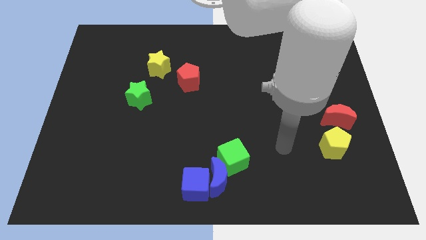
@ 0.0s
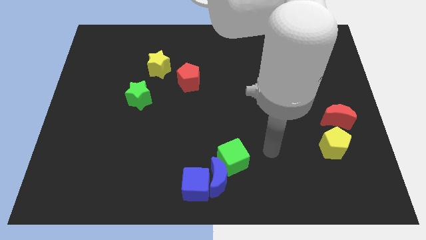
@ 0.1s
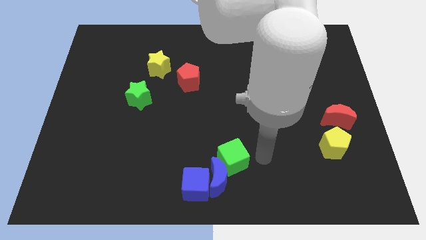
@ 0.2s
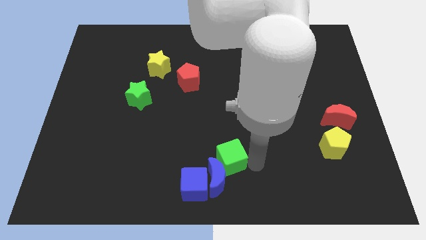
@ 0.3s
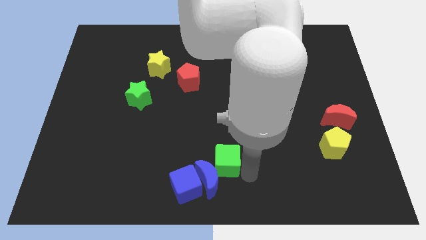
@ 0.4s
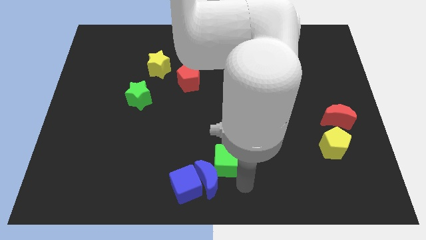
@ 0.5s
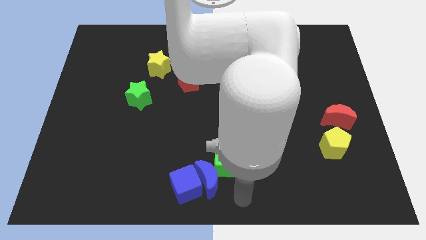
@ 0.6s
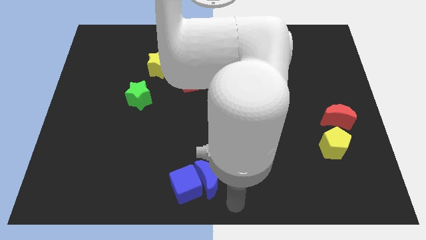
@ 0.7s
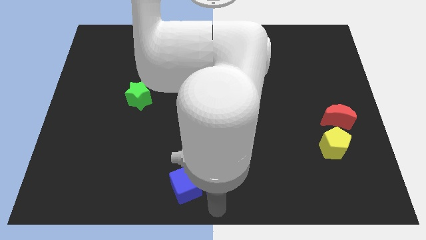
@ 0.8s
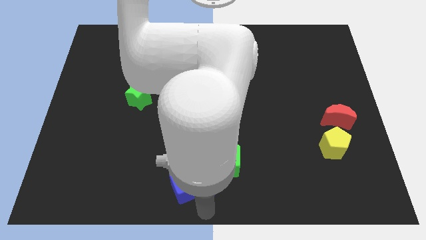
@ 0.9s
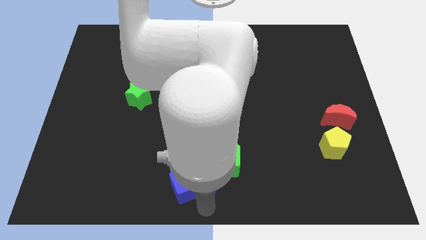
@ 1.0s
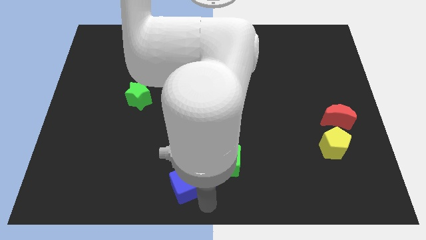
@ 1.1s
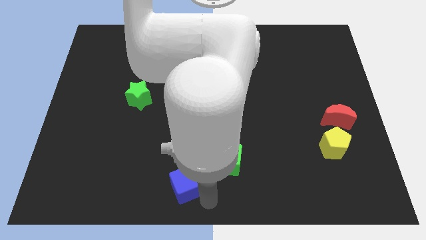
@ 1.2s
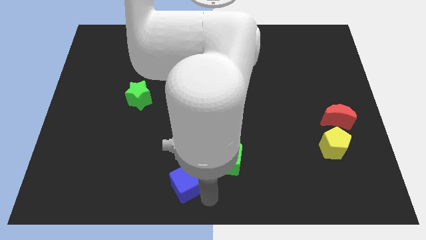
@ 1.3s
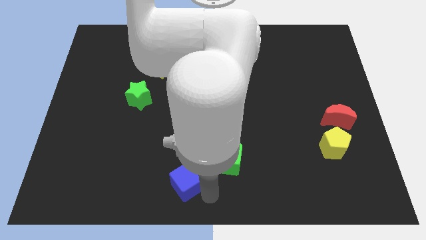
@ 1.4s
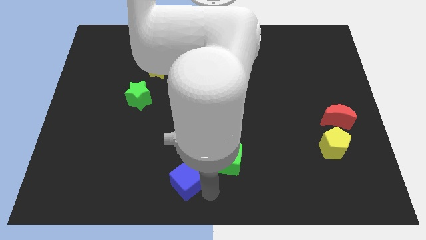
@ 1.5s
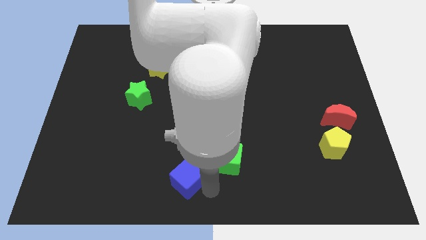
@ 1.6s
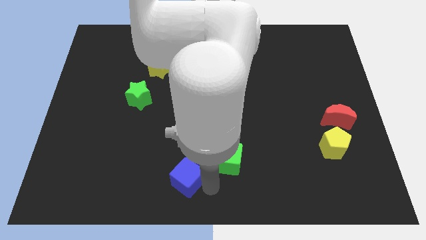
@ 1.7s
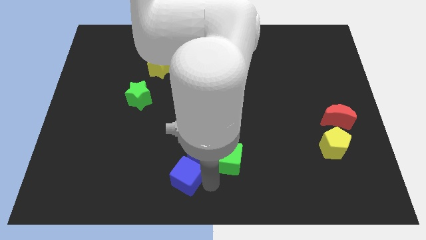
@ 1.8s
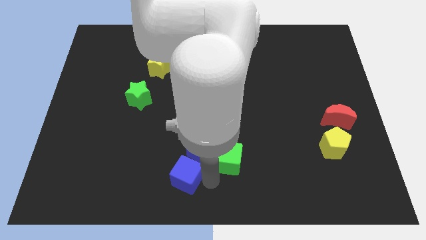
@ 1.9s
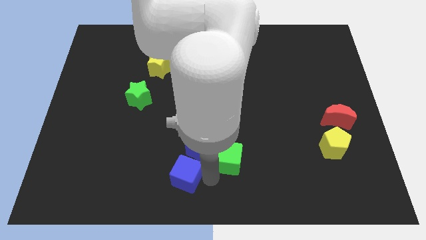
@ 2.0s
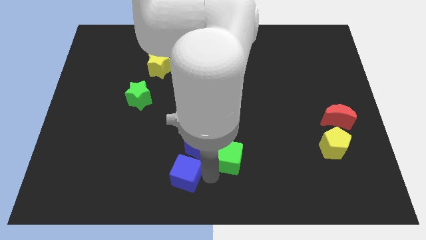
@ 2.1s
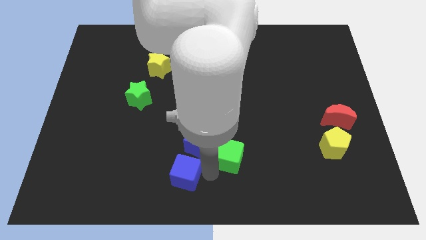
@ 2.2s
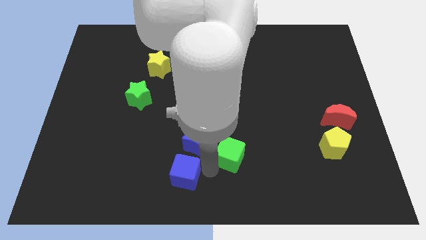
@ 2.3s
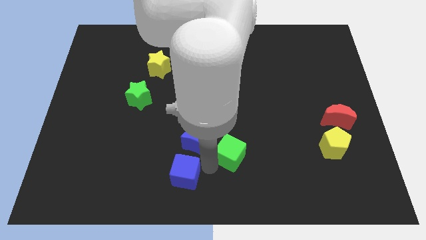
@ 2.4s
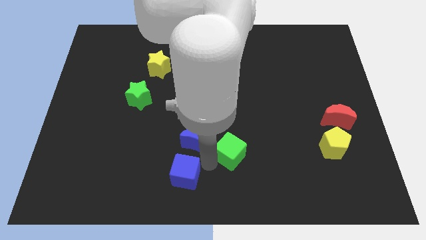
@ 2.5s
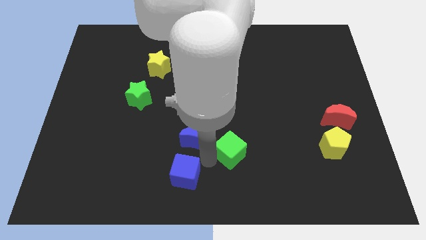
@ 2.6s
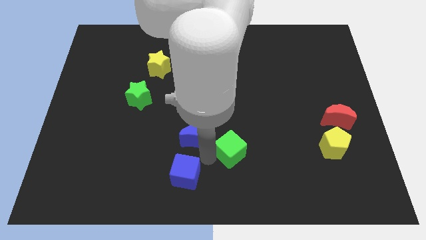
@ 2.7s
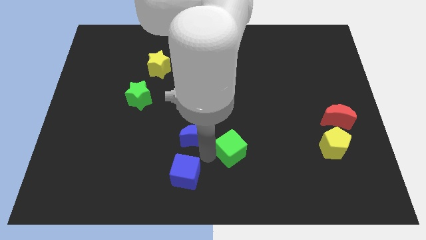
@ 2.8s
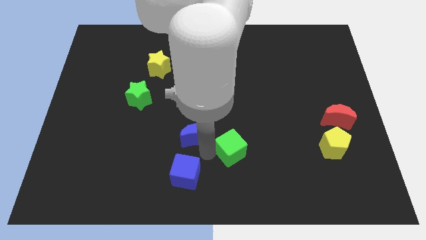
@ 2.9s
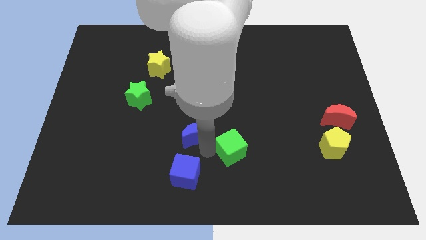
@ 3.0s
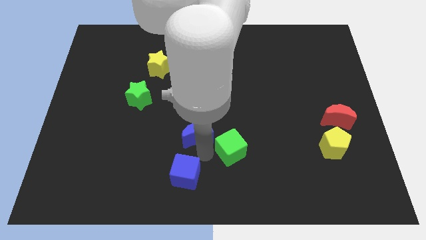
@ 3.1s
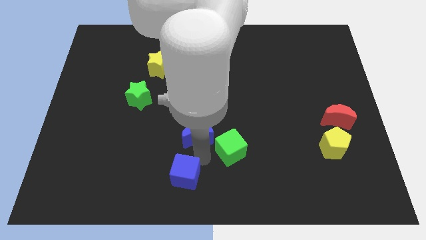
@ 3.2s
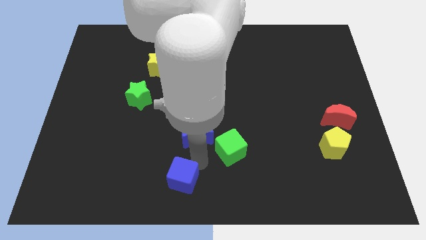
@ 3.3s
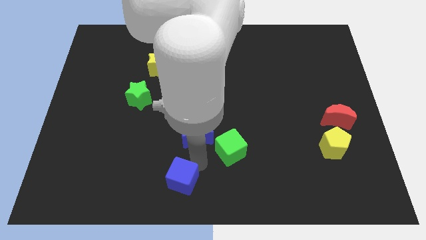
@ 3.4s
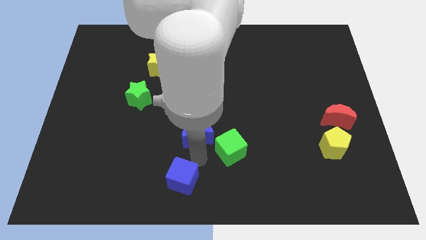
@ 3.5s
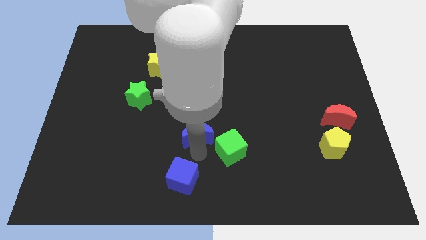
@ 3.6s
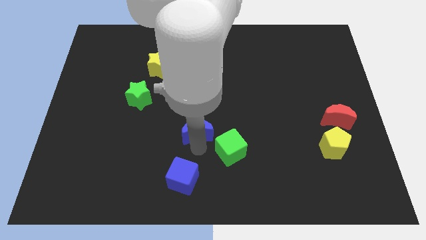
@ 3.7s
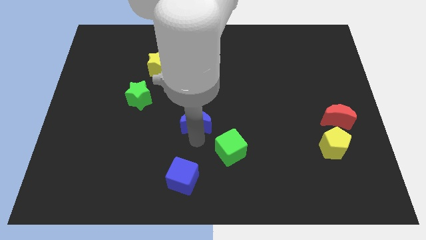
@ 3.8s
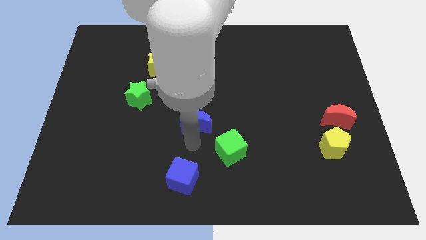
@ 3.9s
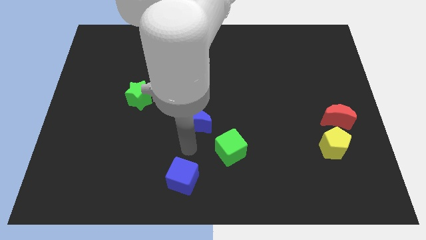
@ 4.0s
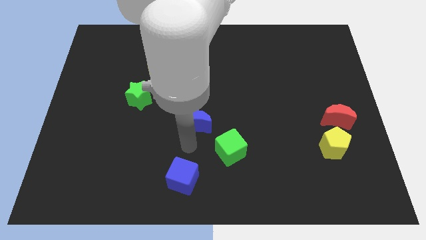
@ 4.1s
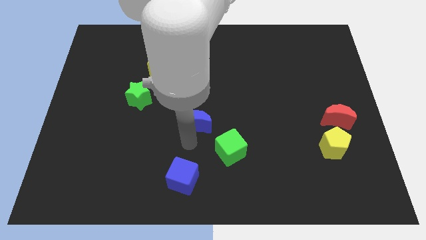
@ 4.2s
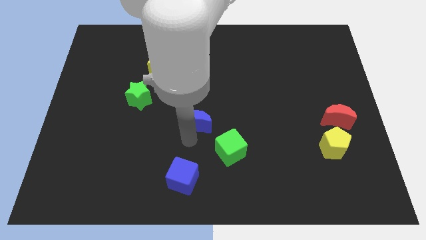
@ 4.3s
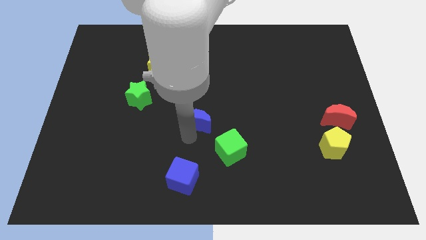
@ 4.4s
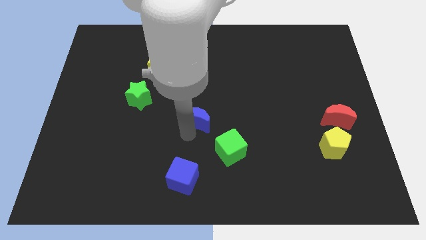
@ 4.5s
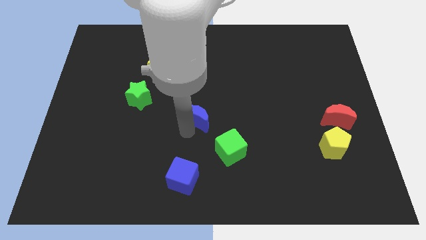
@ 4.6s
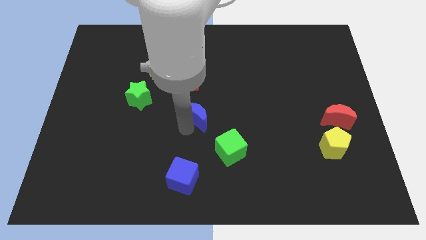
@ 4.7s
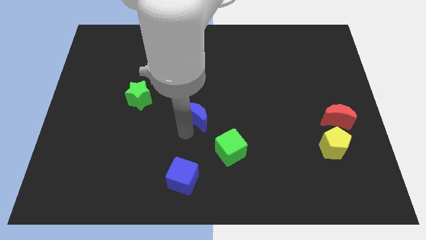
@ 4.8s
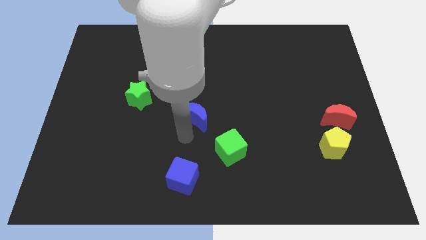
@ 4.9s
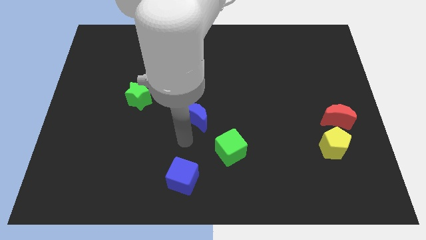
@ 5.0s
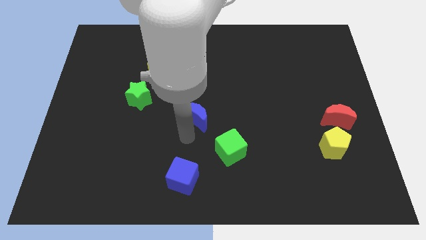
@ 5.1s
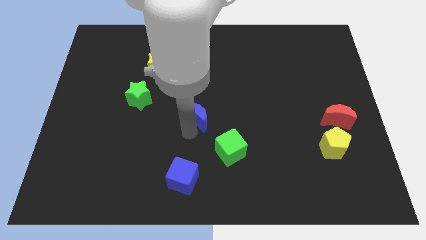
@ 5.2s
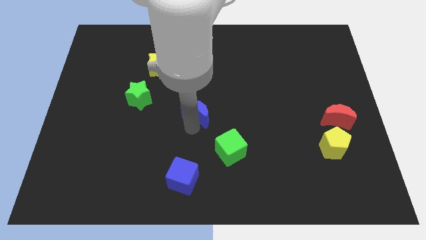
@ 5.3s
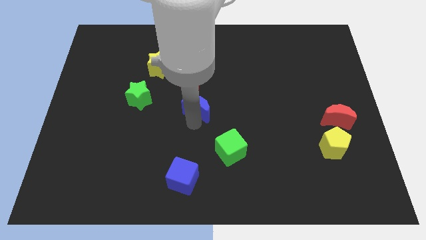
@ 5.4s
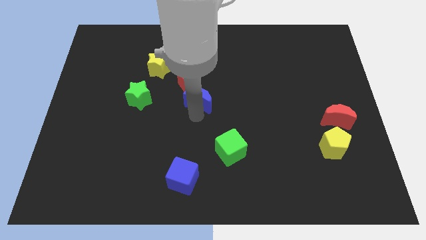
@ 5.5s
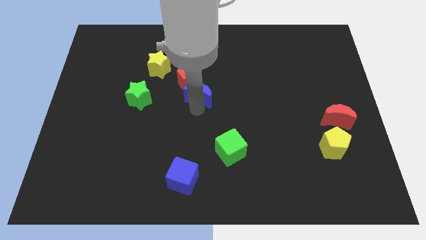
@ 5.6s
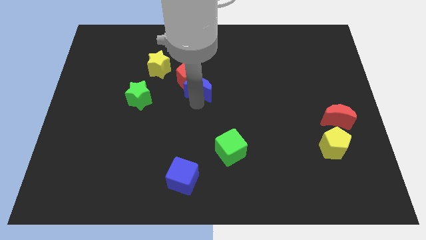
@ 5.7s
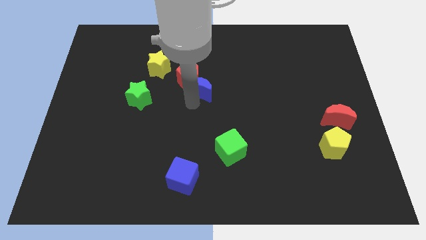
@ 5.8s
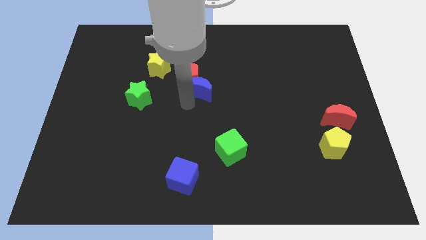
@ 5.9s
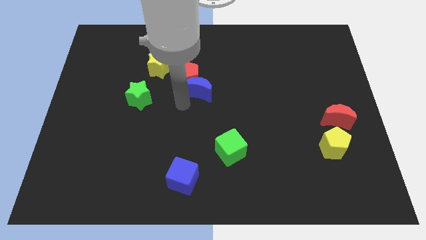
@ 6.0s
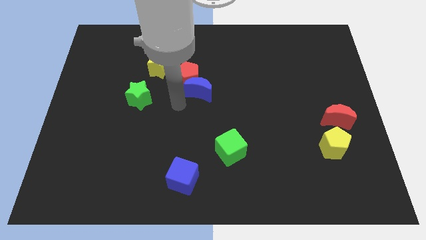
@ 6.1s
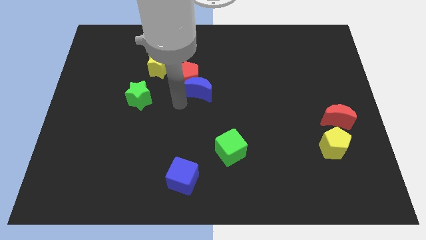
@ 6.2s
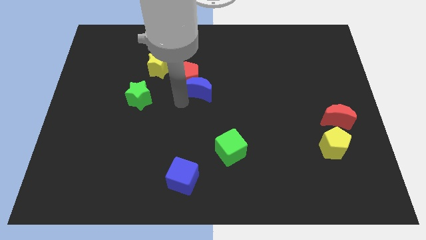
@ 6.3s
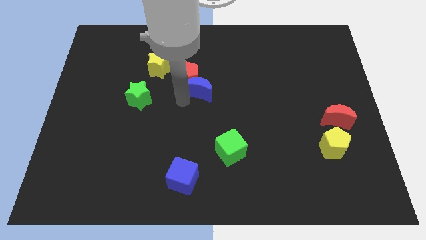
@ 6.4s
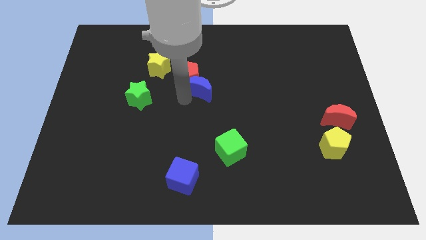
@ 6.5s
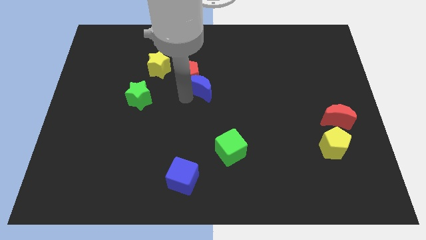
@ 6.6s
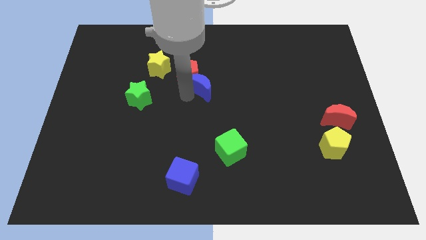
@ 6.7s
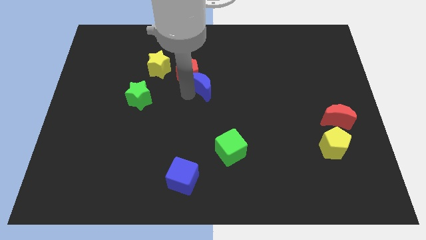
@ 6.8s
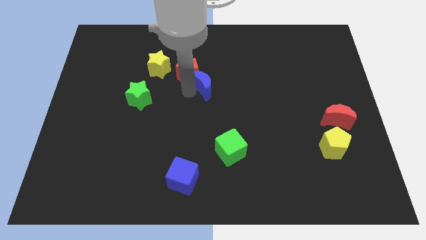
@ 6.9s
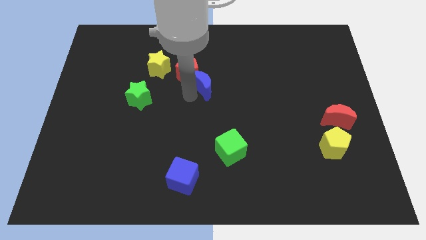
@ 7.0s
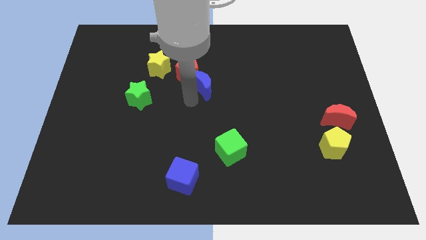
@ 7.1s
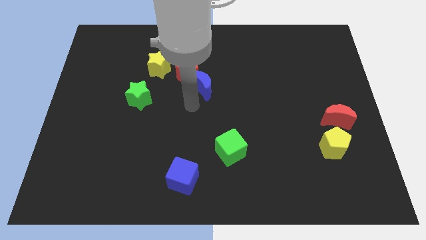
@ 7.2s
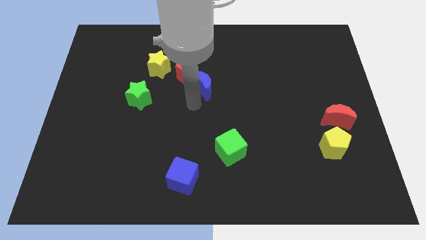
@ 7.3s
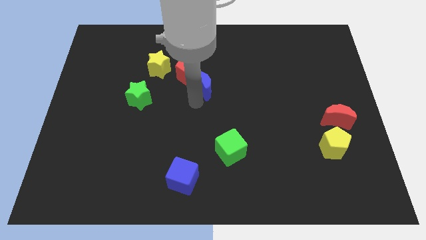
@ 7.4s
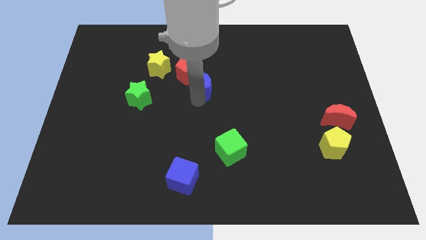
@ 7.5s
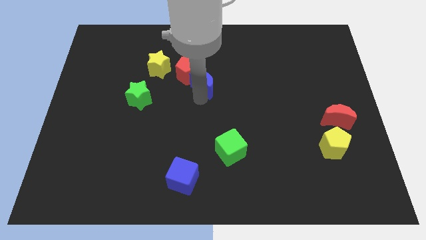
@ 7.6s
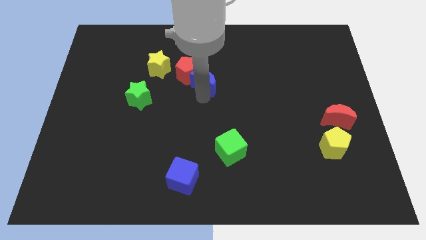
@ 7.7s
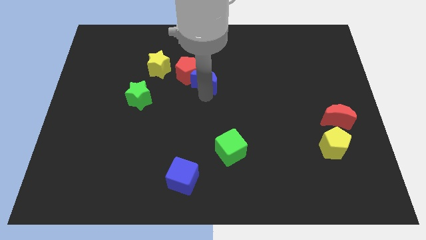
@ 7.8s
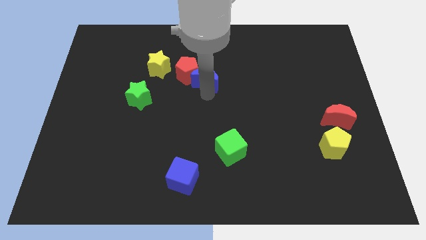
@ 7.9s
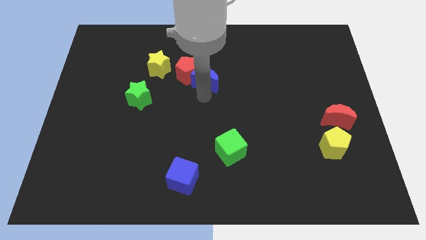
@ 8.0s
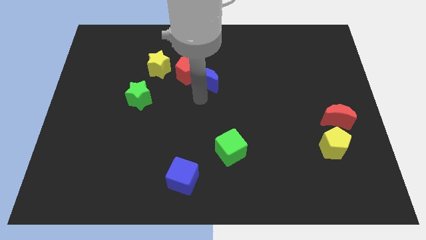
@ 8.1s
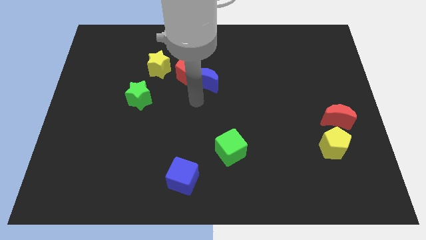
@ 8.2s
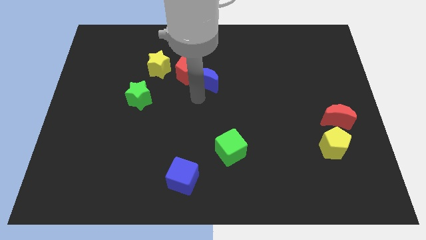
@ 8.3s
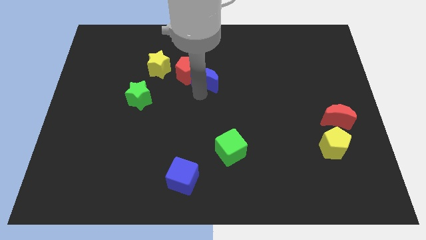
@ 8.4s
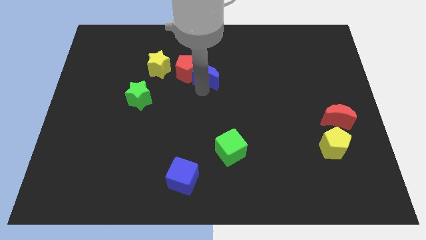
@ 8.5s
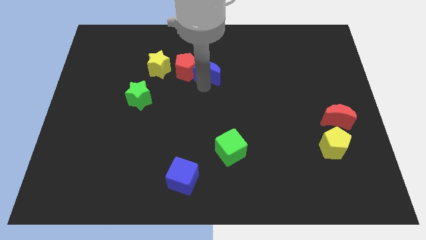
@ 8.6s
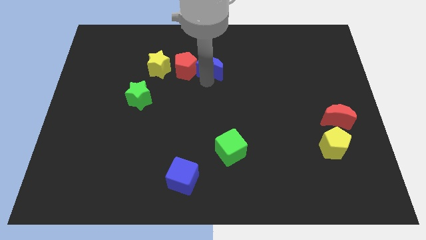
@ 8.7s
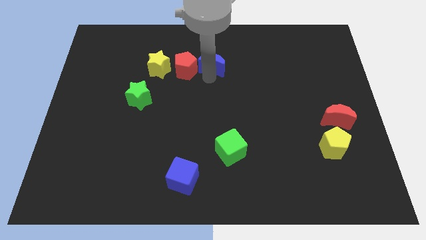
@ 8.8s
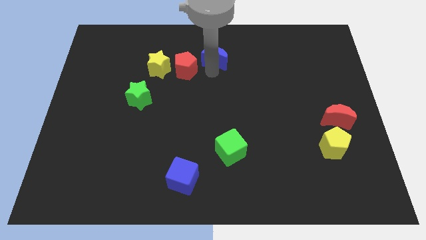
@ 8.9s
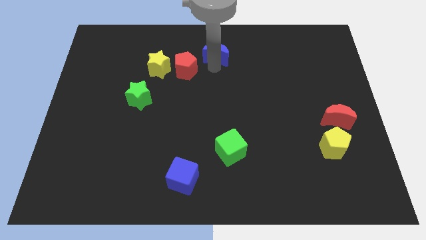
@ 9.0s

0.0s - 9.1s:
move the blue moon to the top
